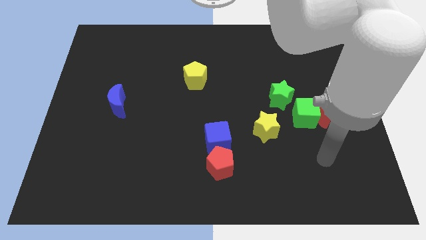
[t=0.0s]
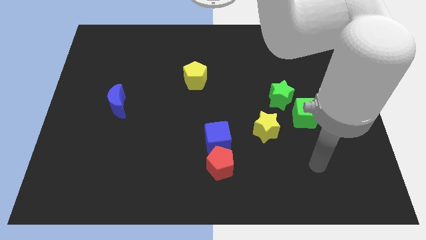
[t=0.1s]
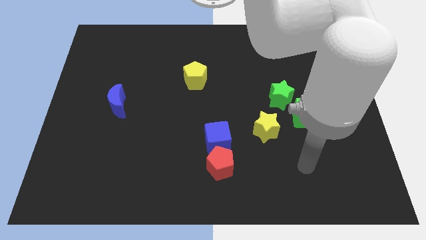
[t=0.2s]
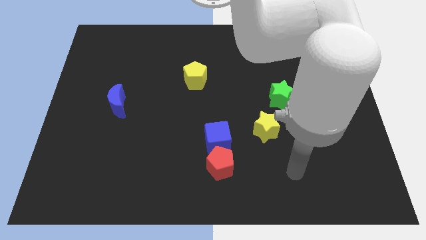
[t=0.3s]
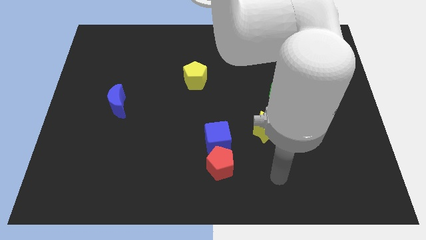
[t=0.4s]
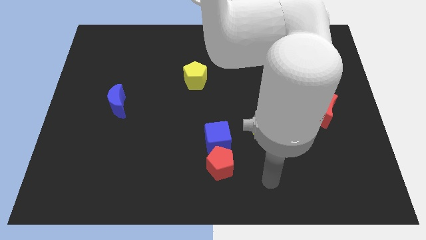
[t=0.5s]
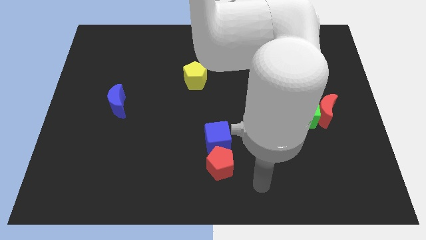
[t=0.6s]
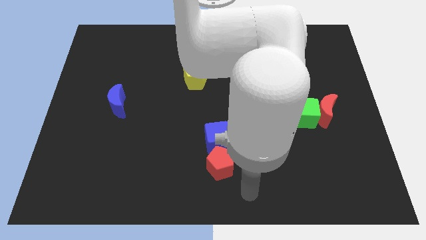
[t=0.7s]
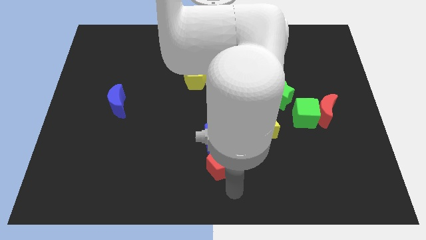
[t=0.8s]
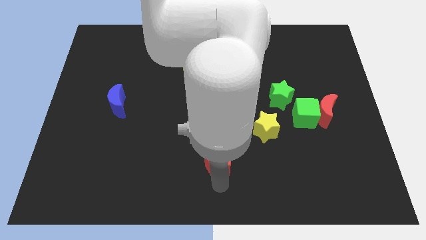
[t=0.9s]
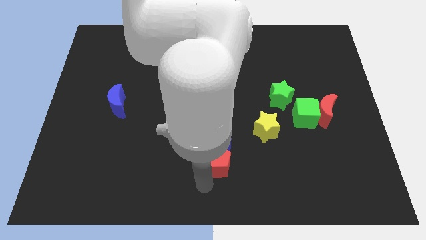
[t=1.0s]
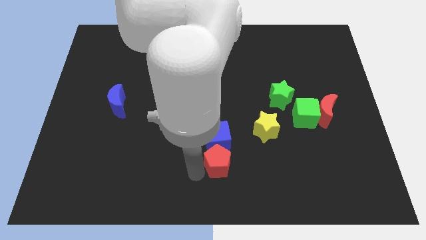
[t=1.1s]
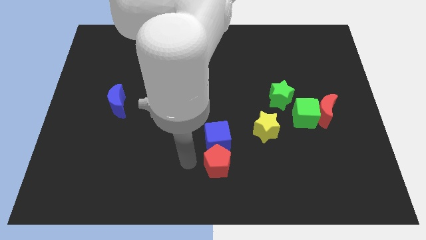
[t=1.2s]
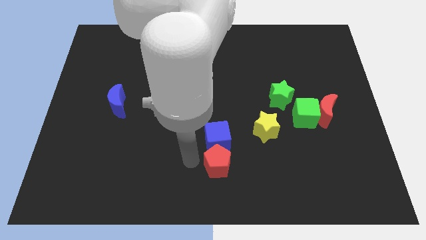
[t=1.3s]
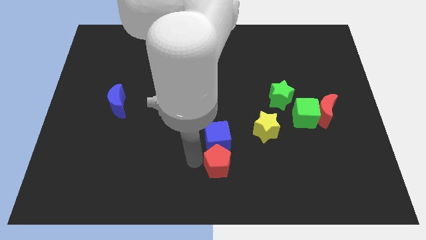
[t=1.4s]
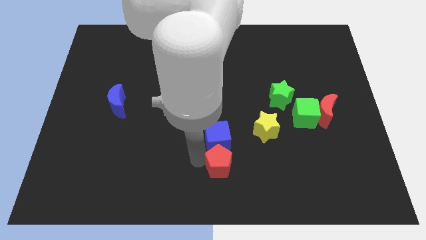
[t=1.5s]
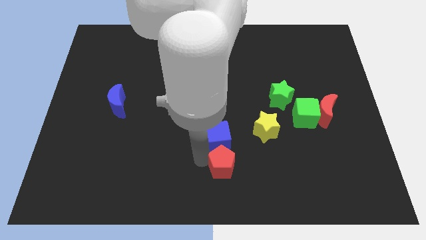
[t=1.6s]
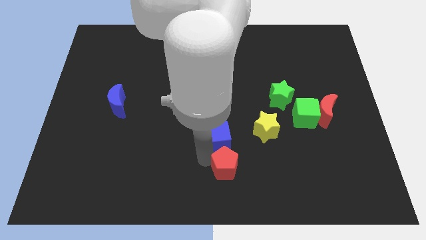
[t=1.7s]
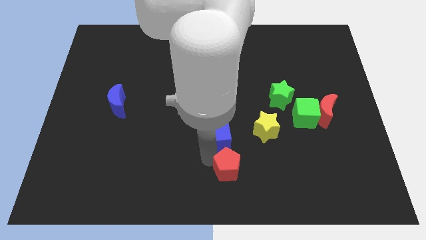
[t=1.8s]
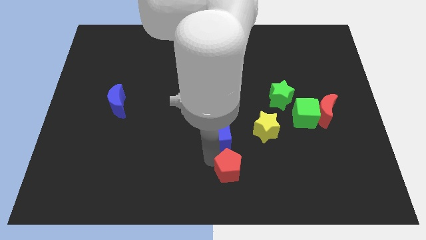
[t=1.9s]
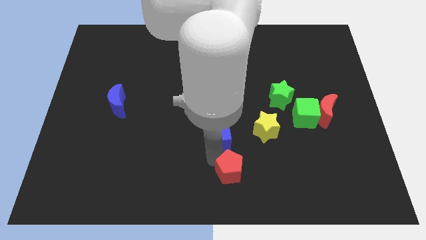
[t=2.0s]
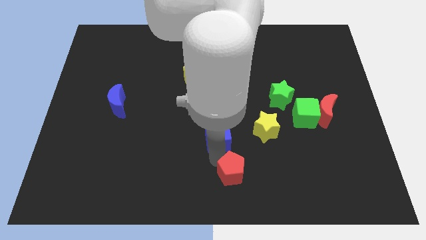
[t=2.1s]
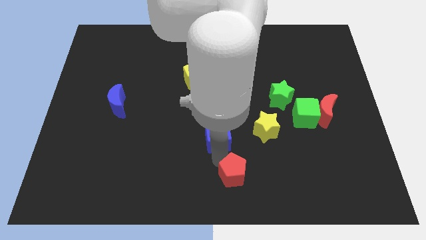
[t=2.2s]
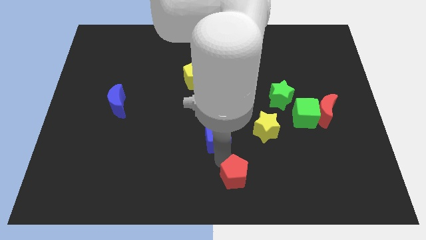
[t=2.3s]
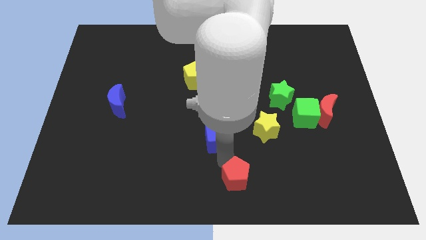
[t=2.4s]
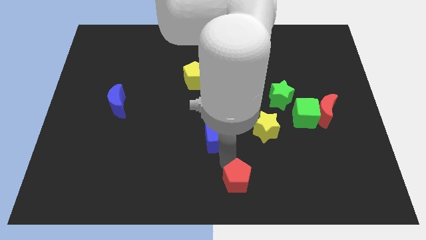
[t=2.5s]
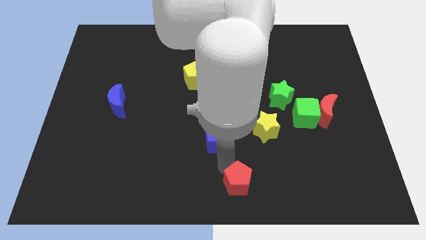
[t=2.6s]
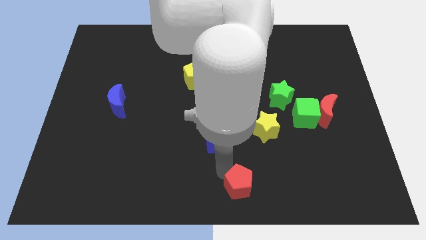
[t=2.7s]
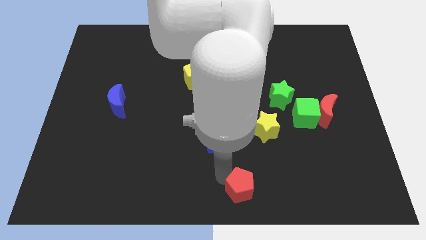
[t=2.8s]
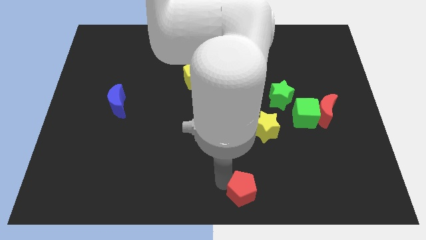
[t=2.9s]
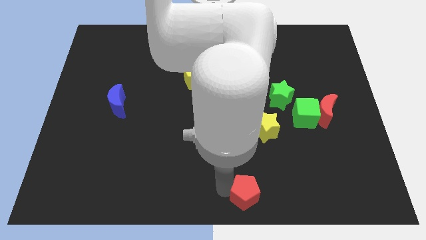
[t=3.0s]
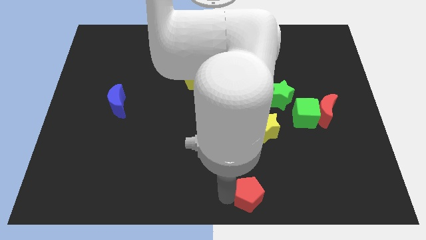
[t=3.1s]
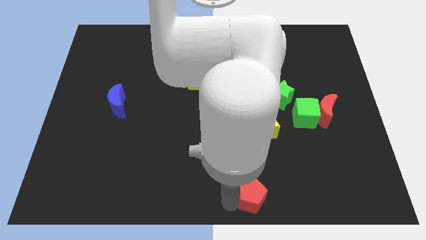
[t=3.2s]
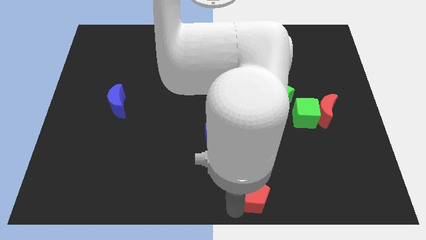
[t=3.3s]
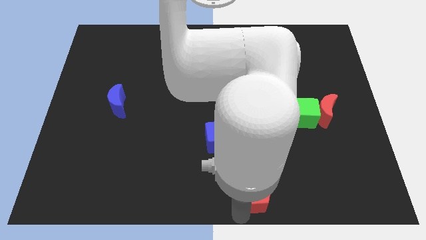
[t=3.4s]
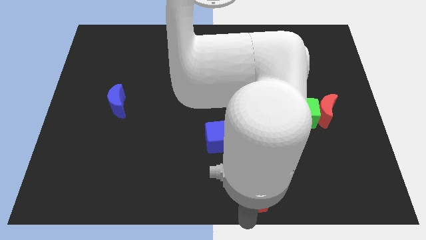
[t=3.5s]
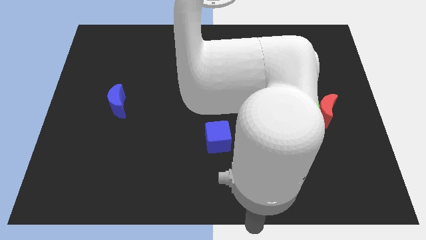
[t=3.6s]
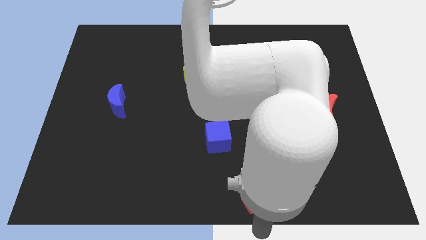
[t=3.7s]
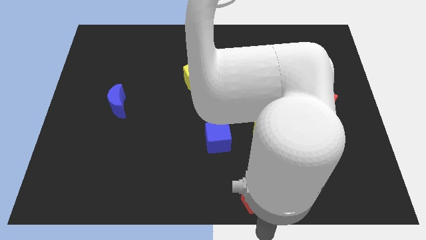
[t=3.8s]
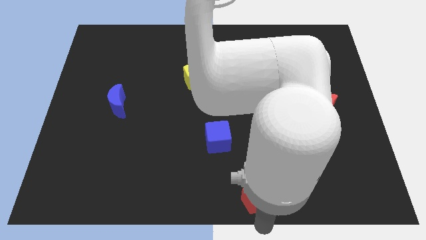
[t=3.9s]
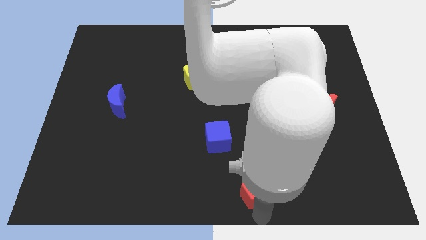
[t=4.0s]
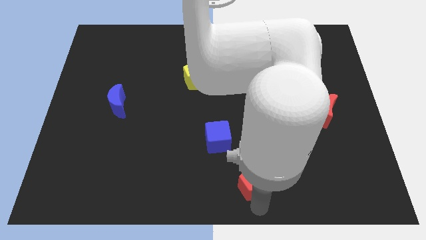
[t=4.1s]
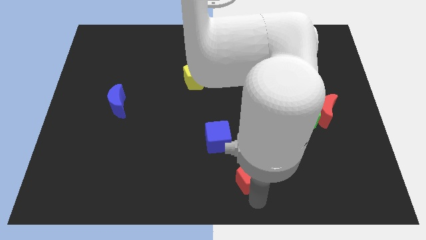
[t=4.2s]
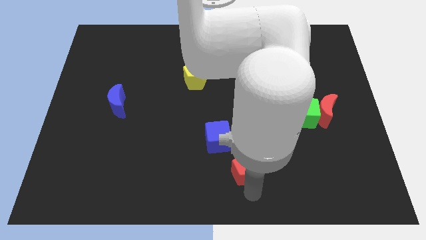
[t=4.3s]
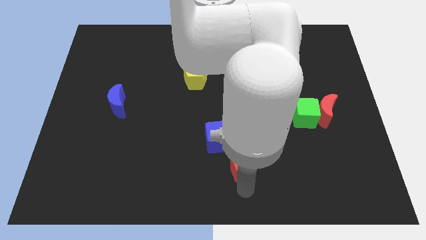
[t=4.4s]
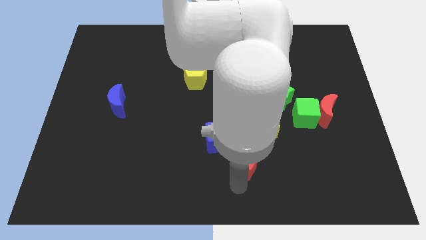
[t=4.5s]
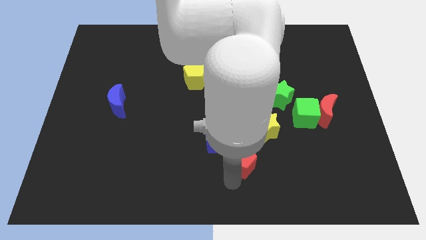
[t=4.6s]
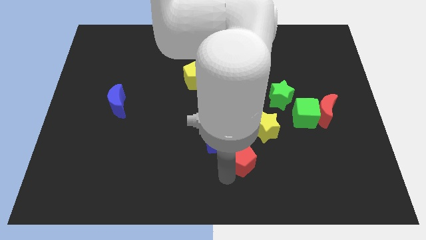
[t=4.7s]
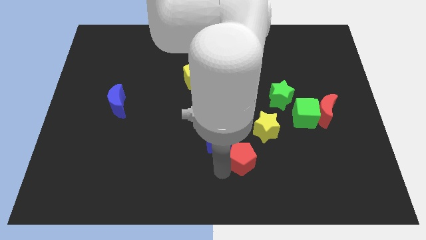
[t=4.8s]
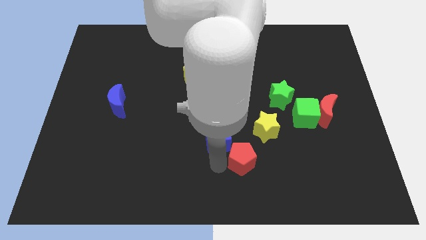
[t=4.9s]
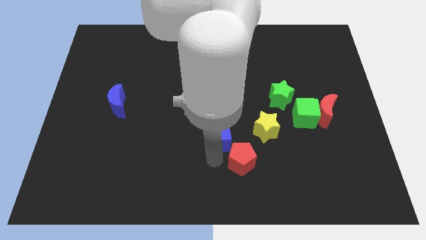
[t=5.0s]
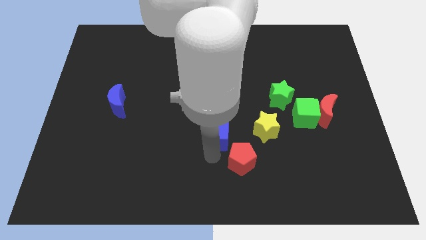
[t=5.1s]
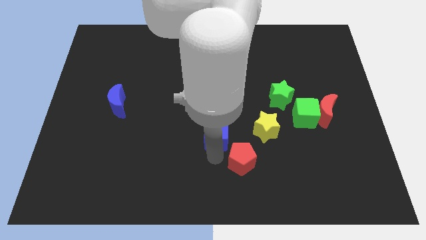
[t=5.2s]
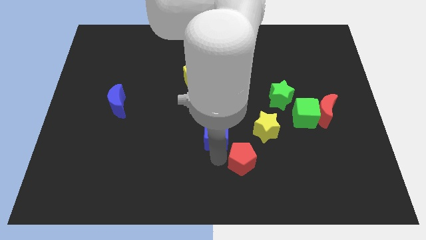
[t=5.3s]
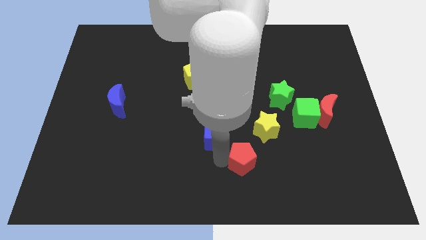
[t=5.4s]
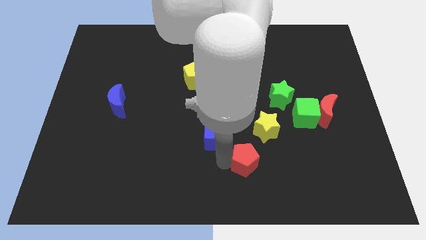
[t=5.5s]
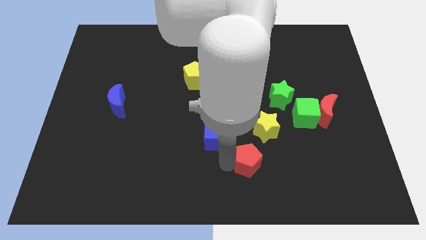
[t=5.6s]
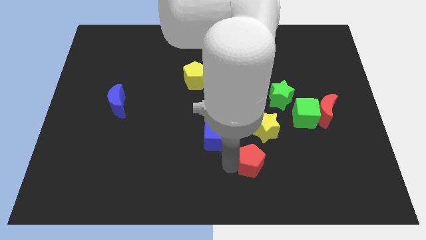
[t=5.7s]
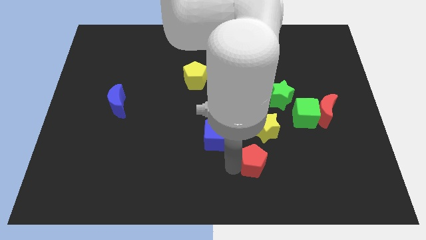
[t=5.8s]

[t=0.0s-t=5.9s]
move the red pentagon right a little bit

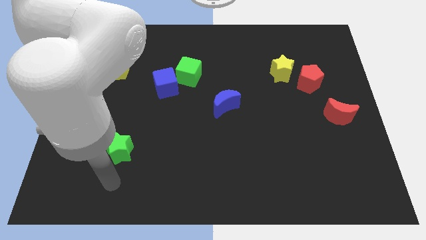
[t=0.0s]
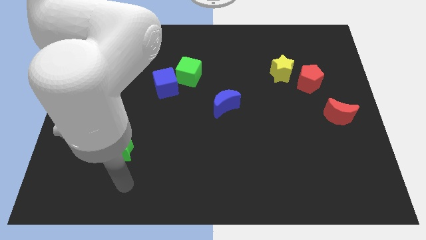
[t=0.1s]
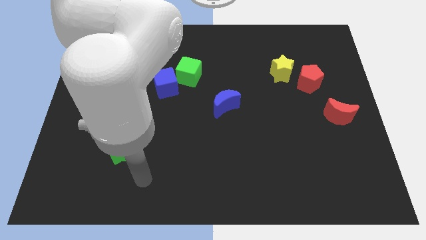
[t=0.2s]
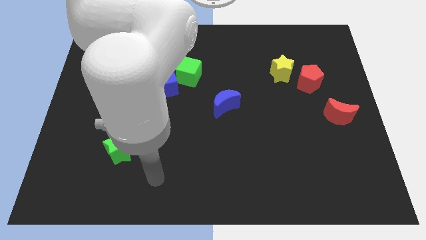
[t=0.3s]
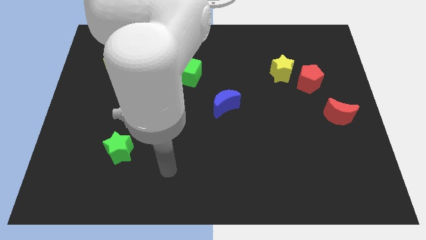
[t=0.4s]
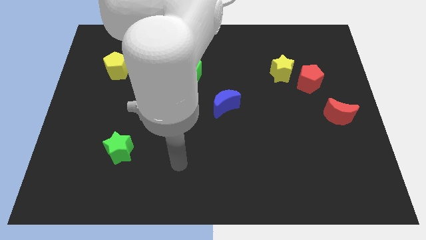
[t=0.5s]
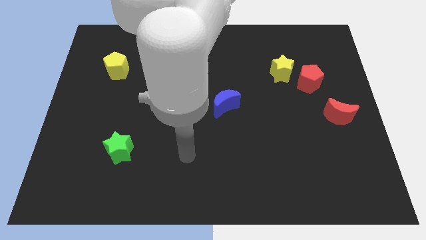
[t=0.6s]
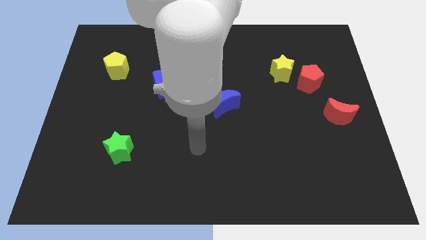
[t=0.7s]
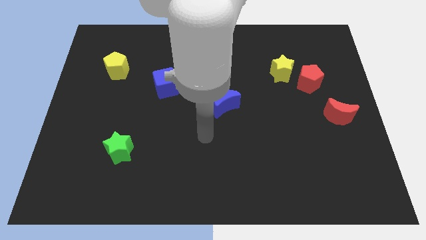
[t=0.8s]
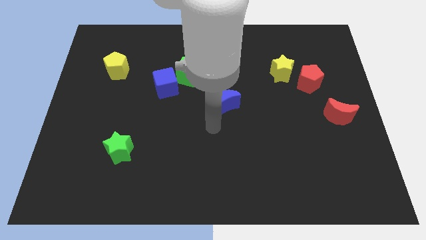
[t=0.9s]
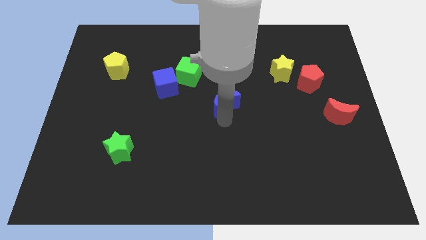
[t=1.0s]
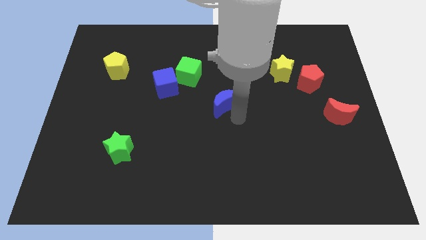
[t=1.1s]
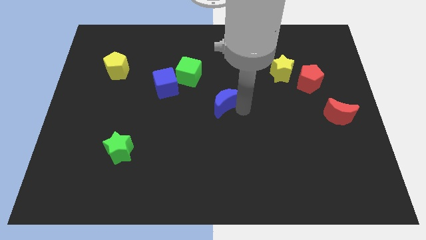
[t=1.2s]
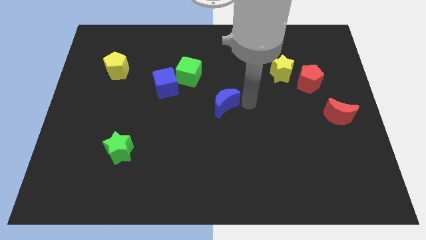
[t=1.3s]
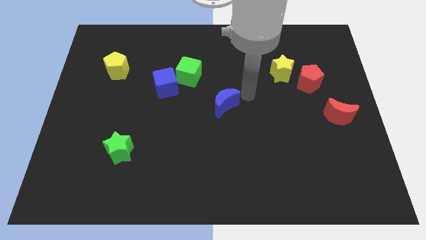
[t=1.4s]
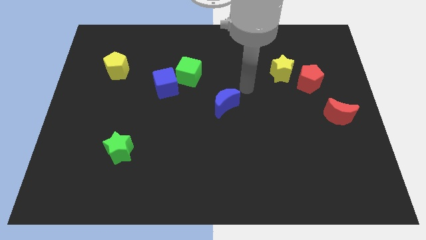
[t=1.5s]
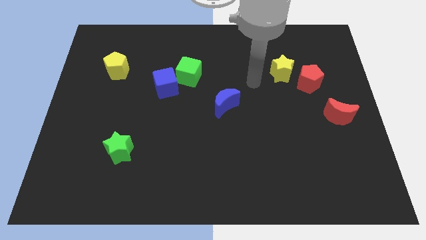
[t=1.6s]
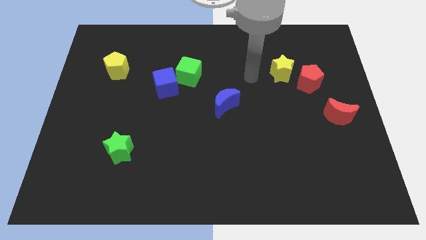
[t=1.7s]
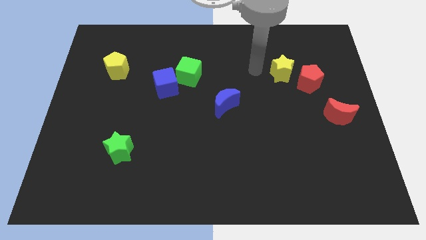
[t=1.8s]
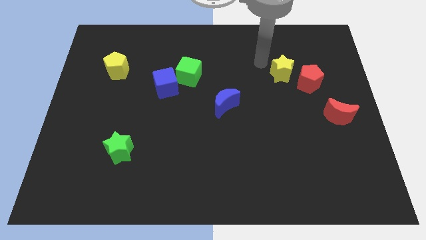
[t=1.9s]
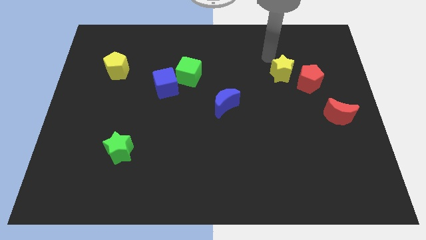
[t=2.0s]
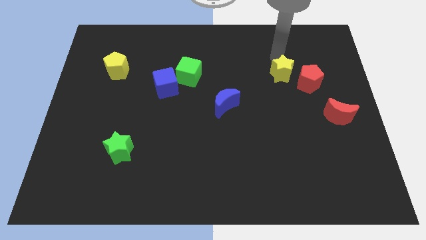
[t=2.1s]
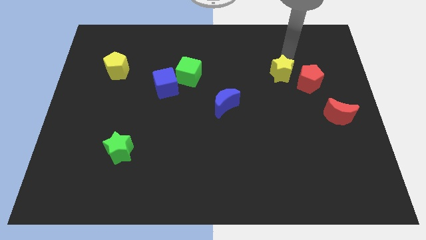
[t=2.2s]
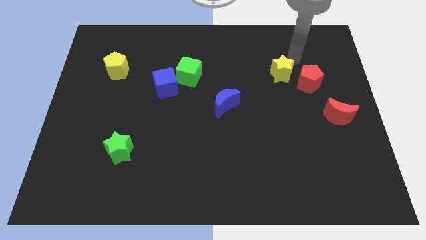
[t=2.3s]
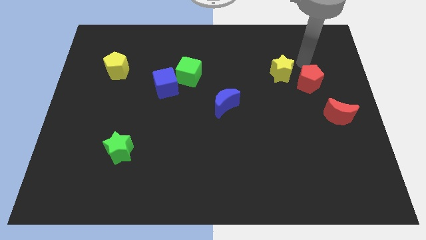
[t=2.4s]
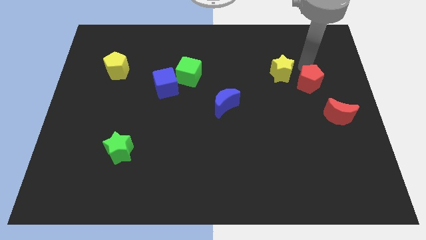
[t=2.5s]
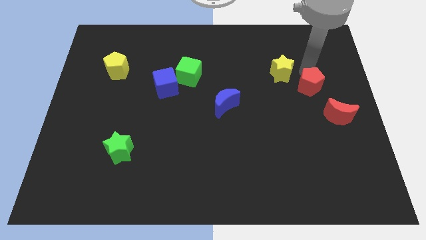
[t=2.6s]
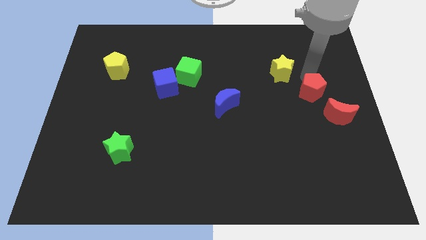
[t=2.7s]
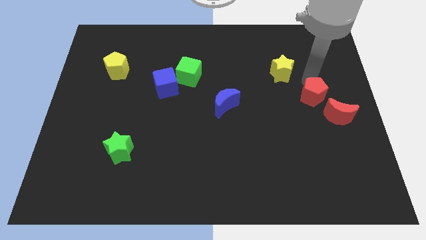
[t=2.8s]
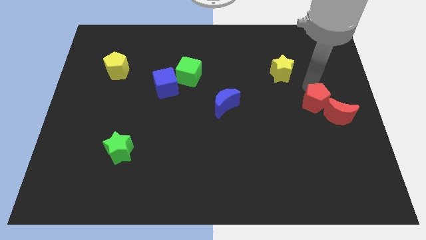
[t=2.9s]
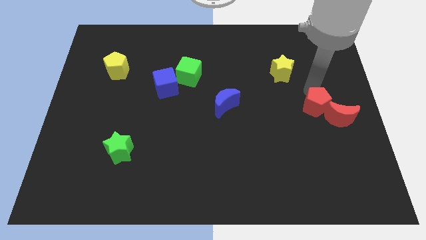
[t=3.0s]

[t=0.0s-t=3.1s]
move the red pentagon a bit down
